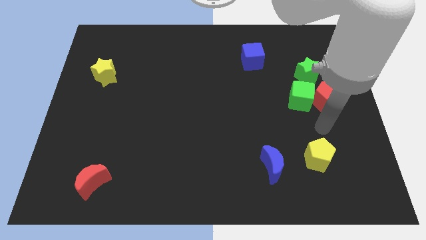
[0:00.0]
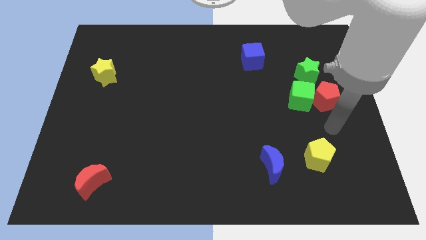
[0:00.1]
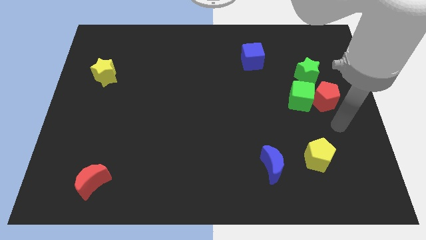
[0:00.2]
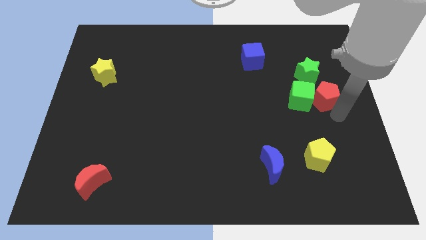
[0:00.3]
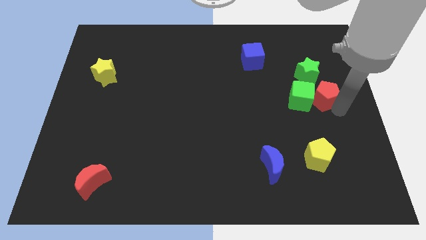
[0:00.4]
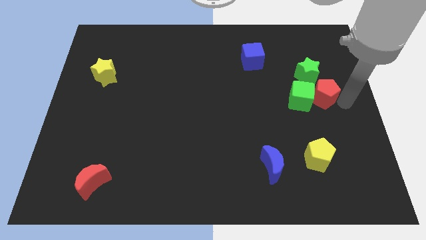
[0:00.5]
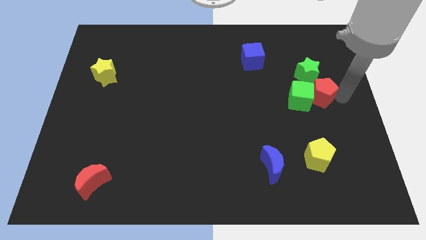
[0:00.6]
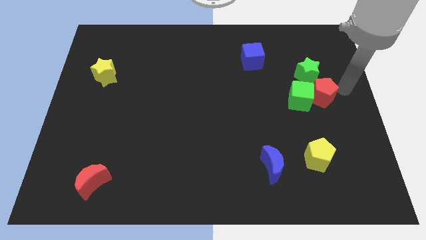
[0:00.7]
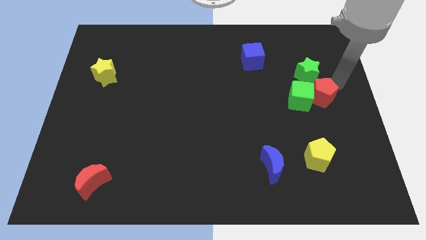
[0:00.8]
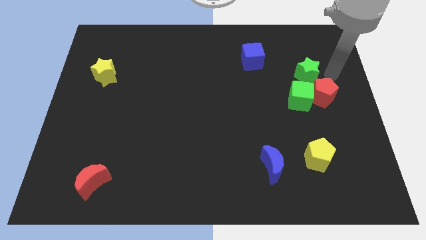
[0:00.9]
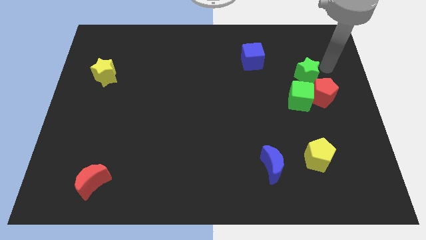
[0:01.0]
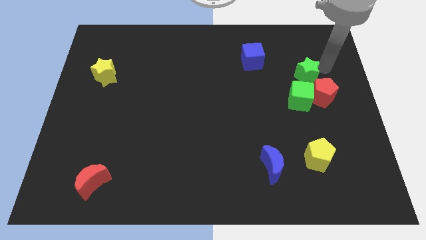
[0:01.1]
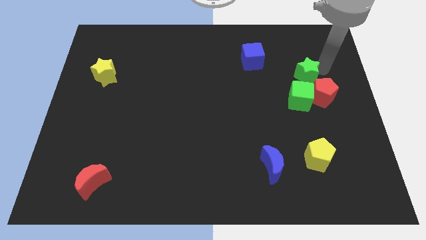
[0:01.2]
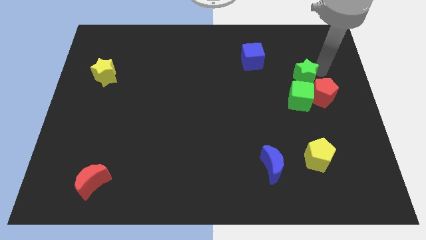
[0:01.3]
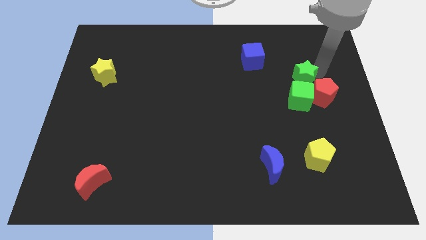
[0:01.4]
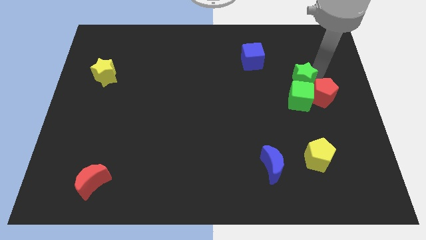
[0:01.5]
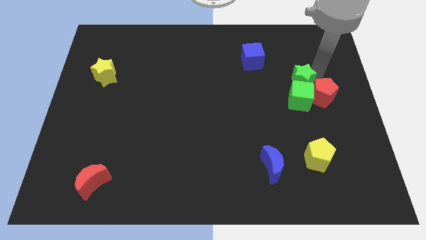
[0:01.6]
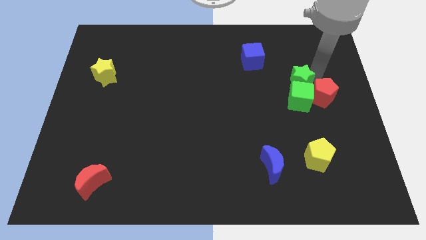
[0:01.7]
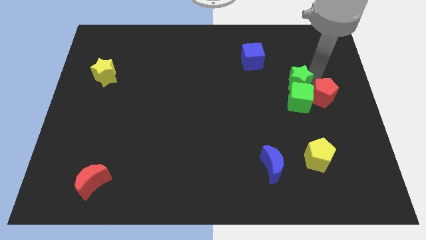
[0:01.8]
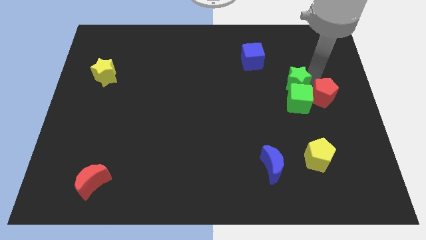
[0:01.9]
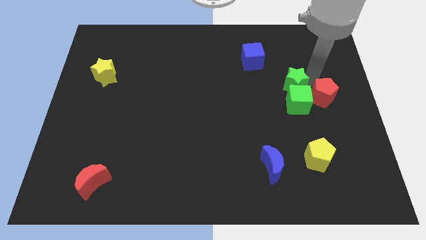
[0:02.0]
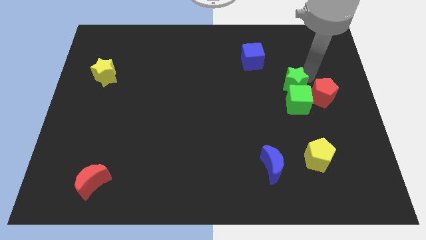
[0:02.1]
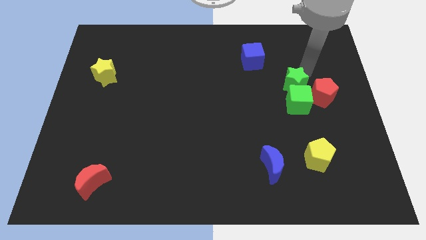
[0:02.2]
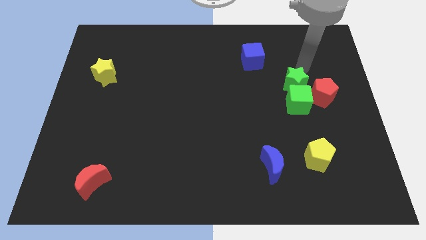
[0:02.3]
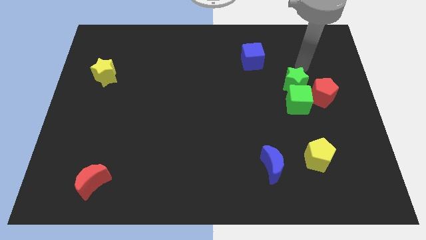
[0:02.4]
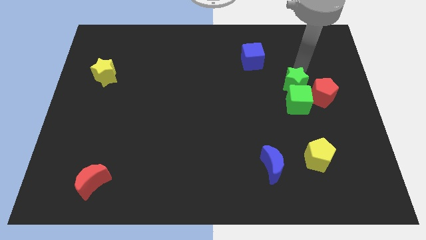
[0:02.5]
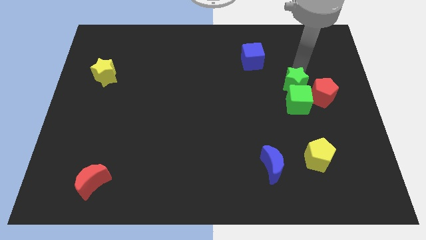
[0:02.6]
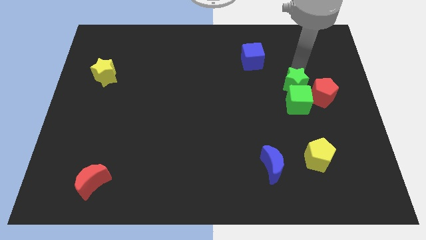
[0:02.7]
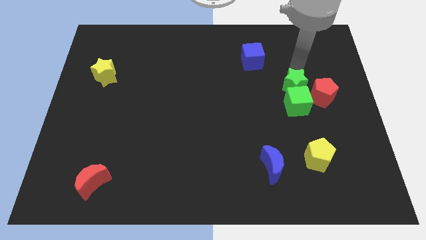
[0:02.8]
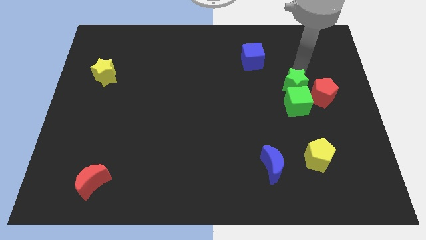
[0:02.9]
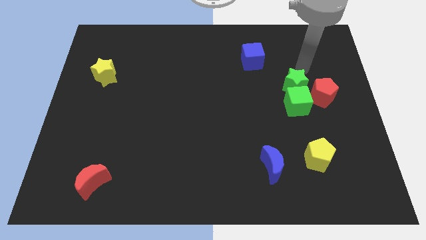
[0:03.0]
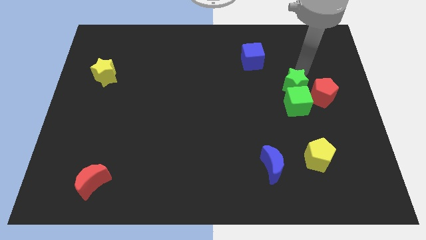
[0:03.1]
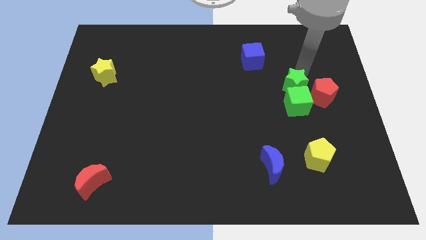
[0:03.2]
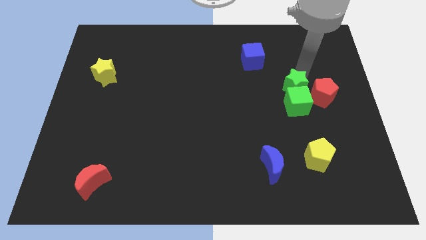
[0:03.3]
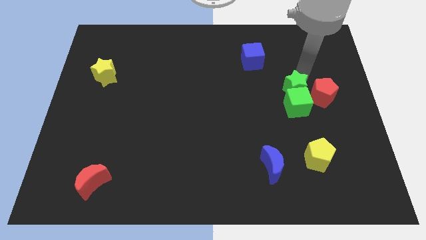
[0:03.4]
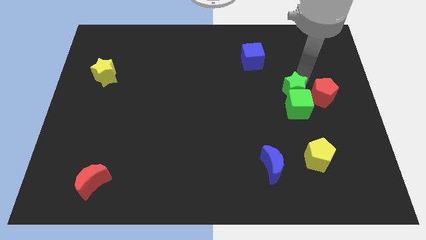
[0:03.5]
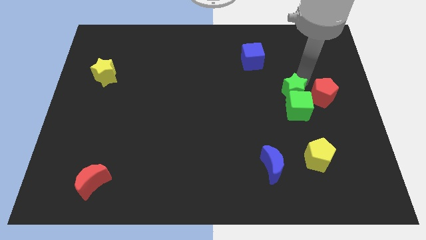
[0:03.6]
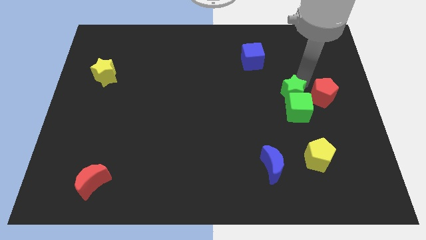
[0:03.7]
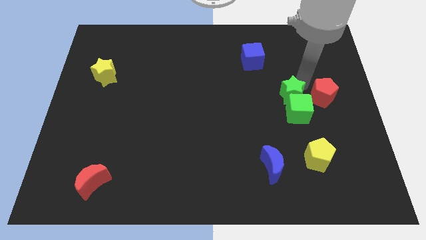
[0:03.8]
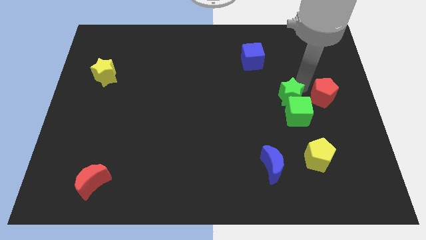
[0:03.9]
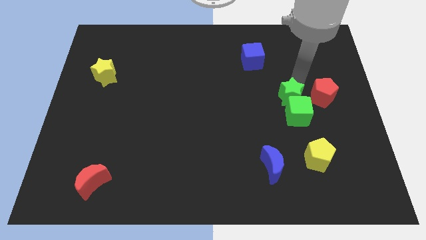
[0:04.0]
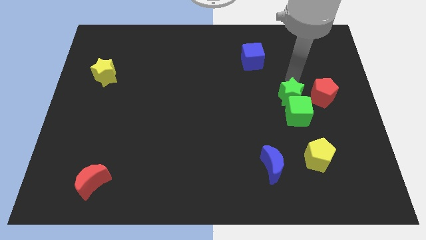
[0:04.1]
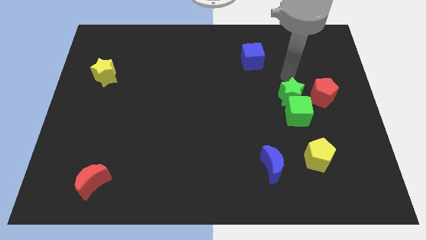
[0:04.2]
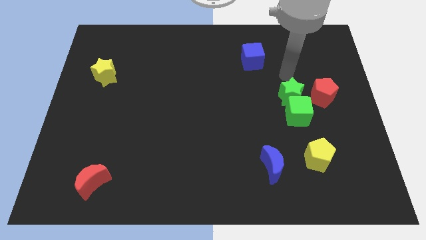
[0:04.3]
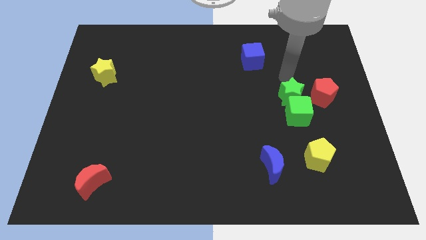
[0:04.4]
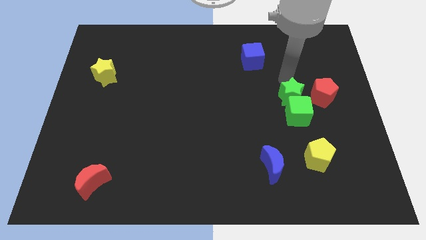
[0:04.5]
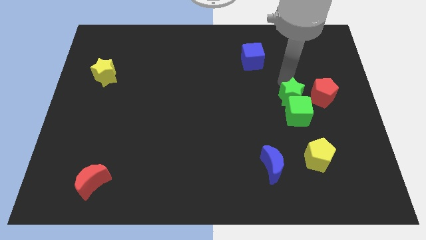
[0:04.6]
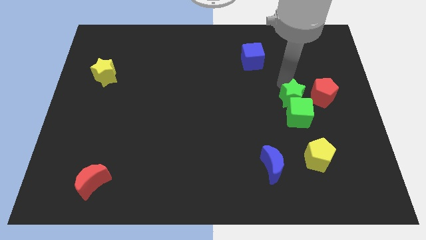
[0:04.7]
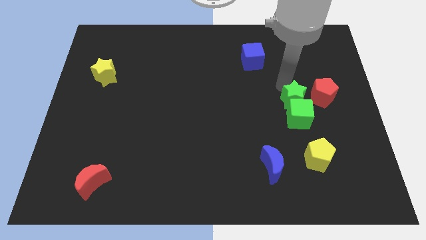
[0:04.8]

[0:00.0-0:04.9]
slightly push the green star downwards

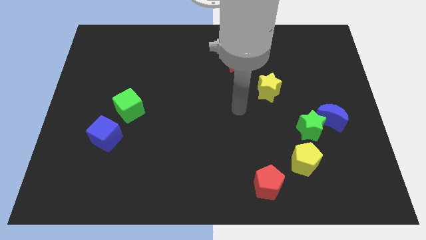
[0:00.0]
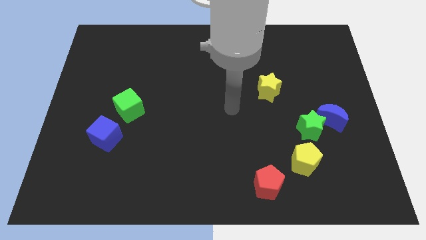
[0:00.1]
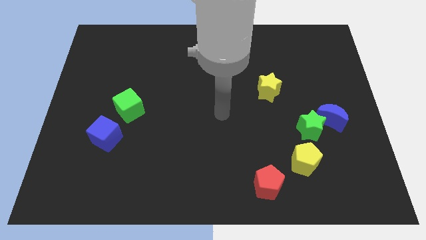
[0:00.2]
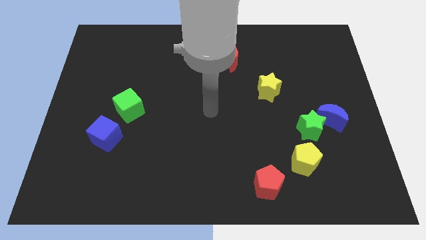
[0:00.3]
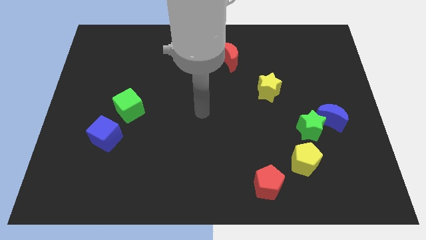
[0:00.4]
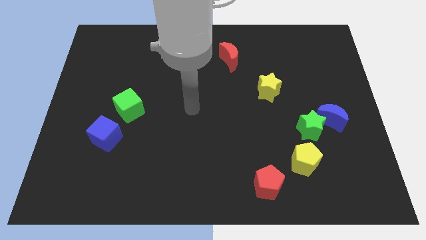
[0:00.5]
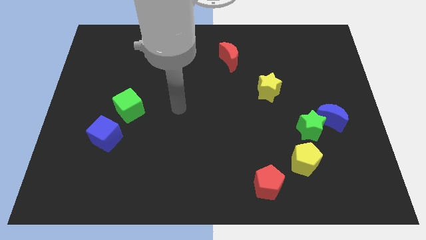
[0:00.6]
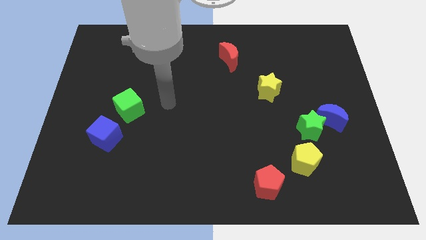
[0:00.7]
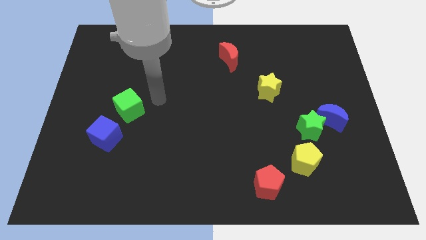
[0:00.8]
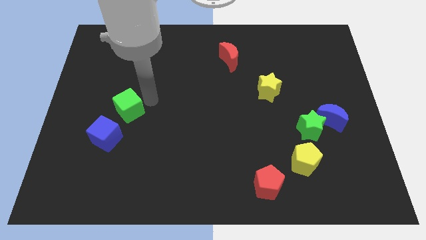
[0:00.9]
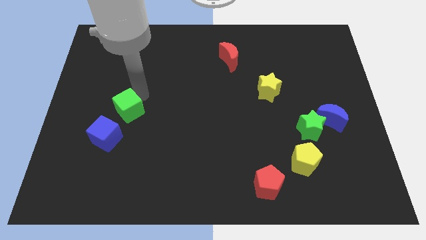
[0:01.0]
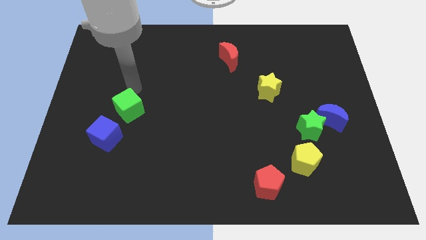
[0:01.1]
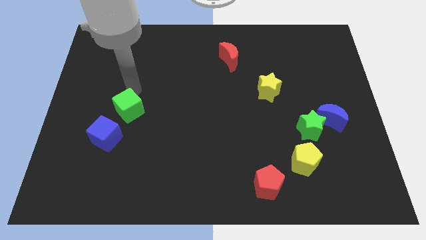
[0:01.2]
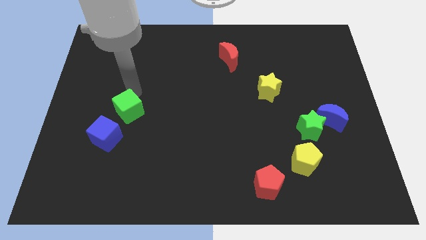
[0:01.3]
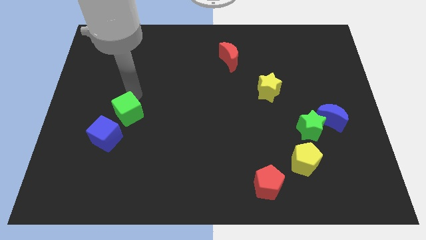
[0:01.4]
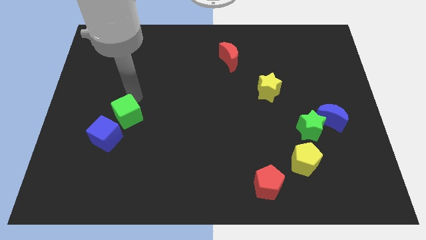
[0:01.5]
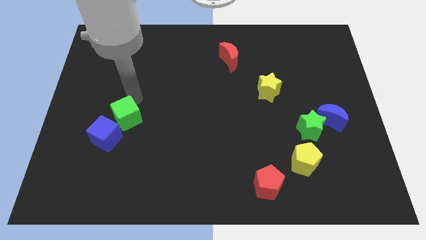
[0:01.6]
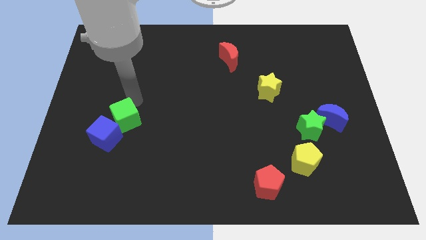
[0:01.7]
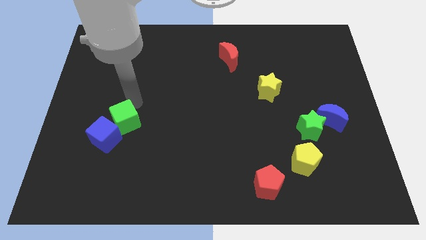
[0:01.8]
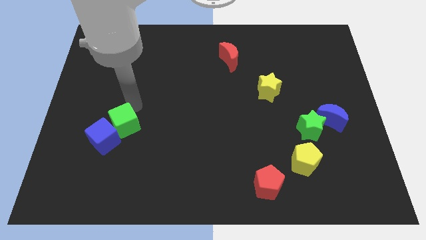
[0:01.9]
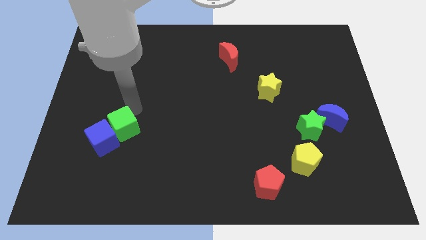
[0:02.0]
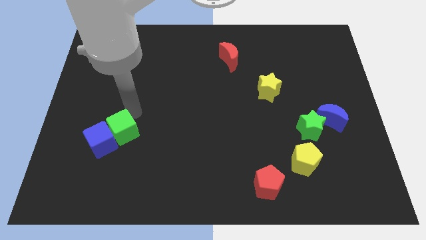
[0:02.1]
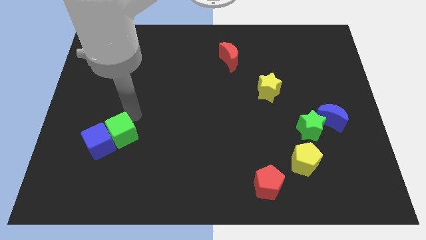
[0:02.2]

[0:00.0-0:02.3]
move the green cube a little bit downwards

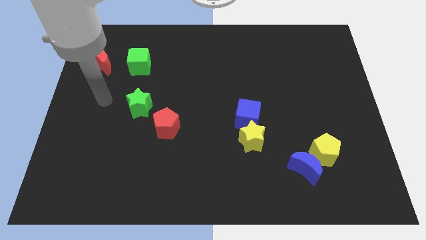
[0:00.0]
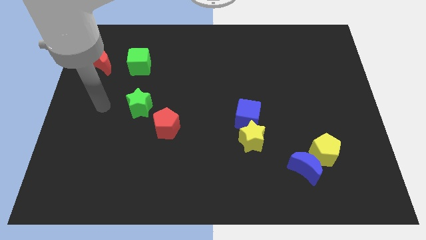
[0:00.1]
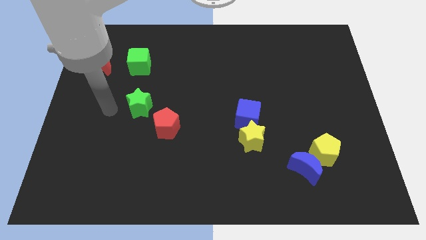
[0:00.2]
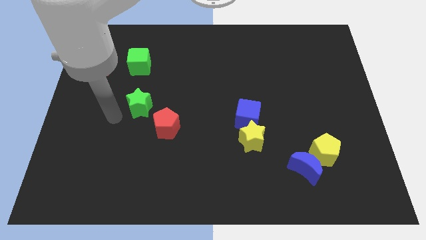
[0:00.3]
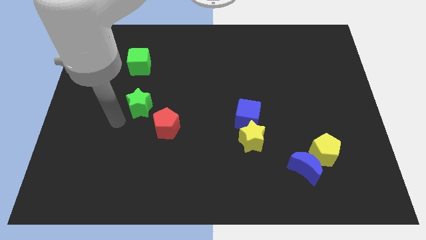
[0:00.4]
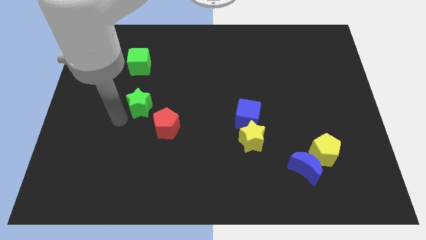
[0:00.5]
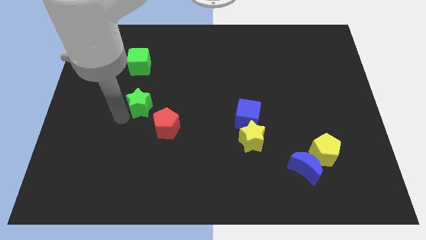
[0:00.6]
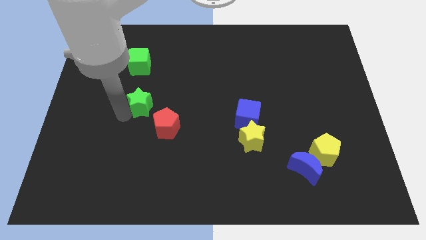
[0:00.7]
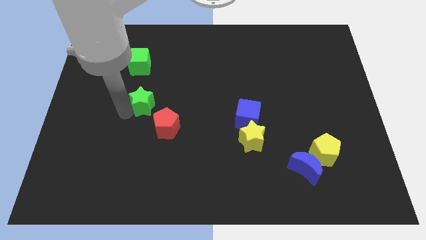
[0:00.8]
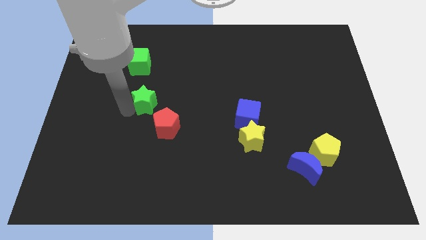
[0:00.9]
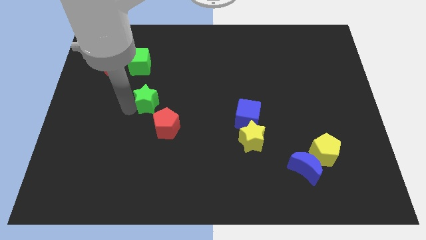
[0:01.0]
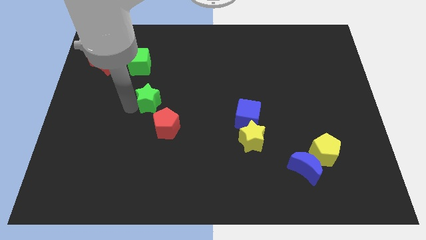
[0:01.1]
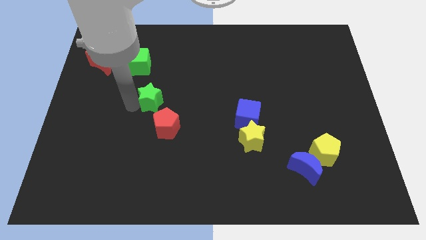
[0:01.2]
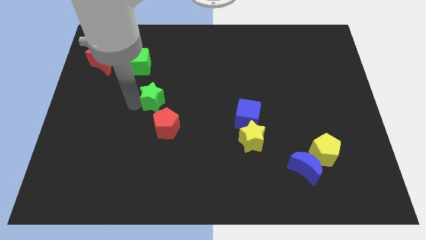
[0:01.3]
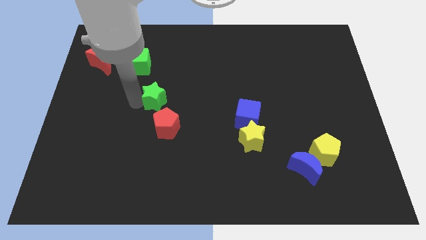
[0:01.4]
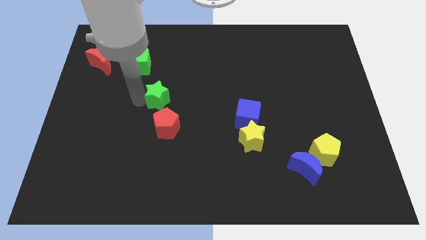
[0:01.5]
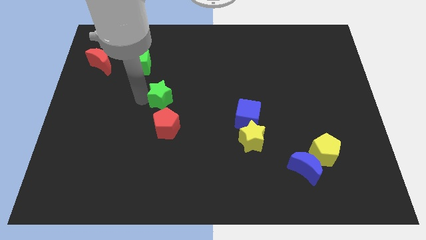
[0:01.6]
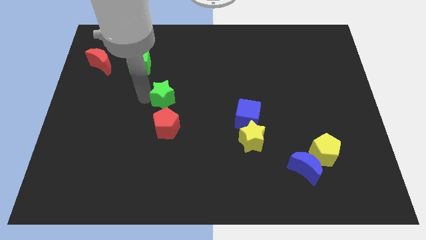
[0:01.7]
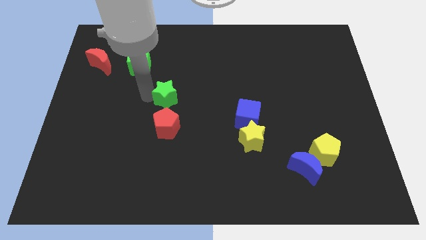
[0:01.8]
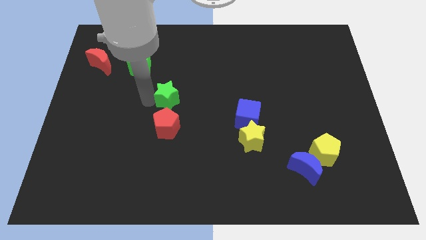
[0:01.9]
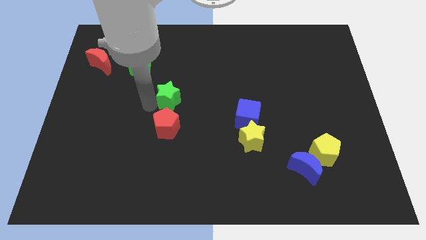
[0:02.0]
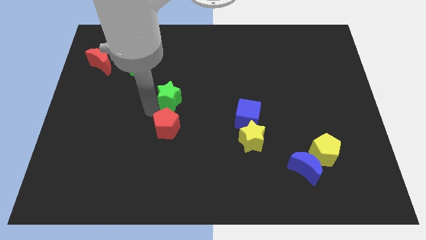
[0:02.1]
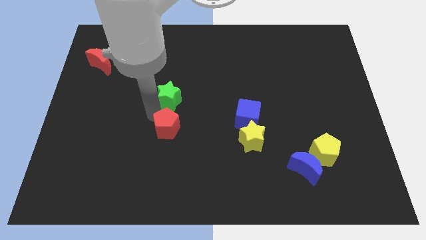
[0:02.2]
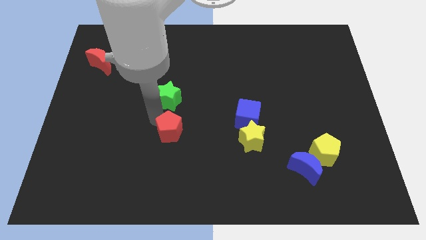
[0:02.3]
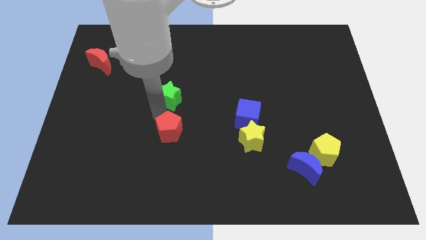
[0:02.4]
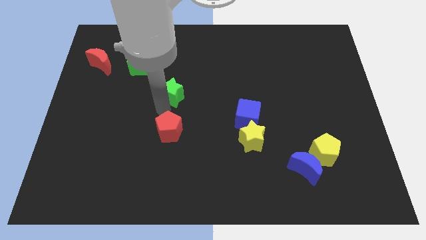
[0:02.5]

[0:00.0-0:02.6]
slide the green star slightly diagonally up and to the right
